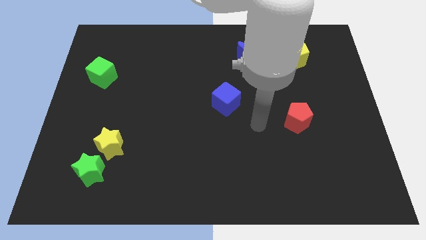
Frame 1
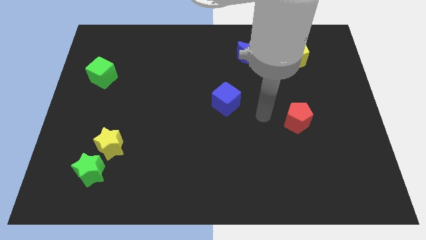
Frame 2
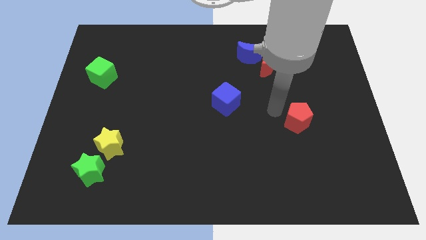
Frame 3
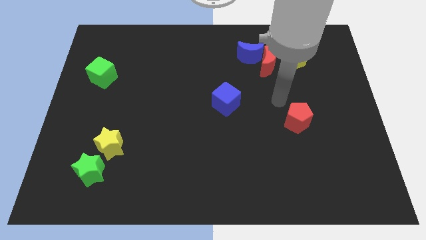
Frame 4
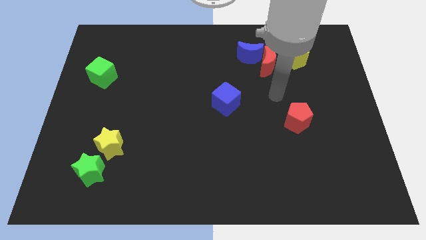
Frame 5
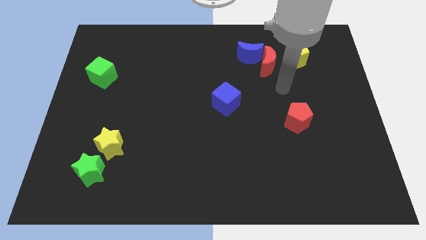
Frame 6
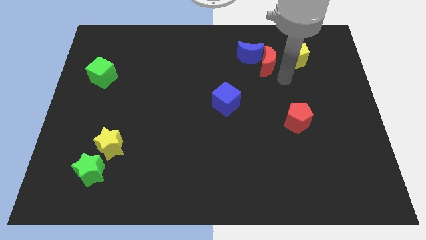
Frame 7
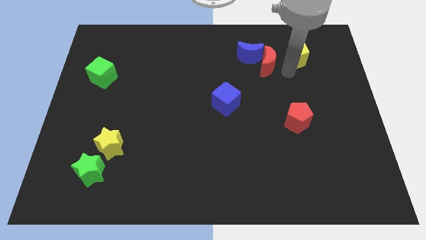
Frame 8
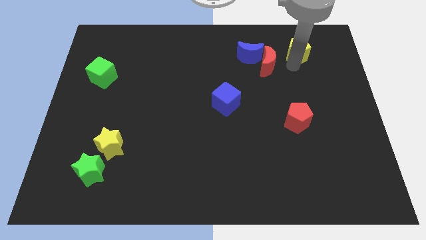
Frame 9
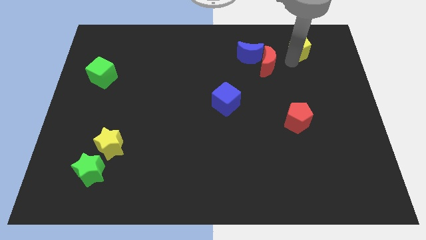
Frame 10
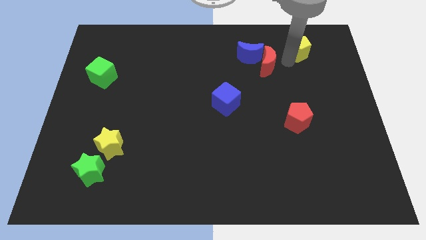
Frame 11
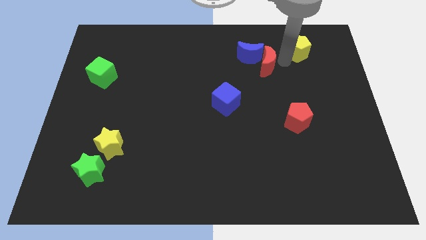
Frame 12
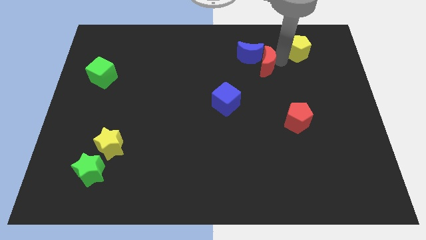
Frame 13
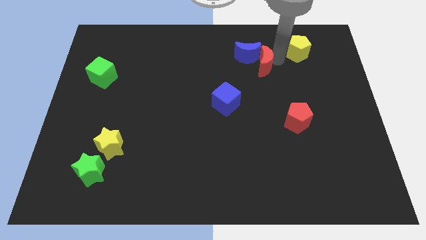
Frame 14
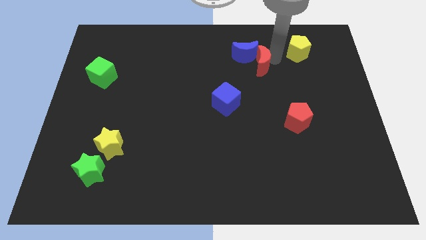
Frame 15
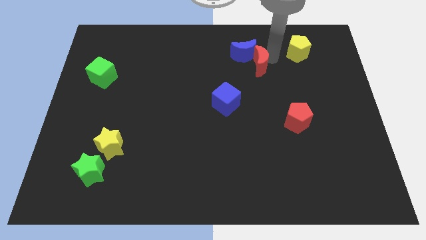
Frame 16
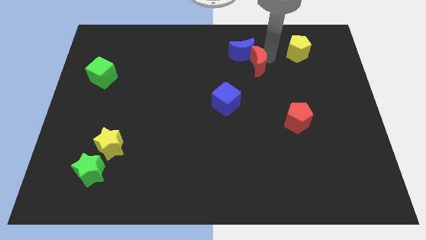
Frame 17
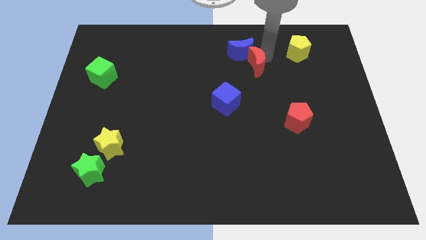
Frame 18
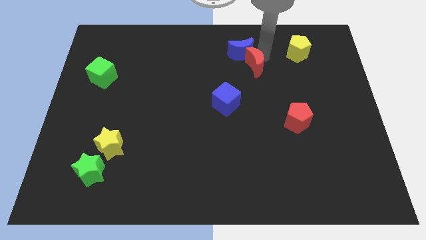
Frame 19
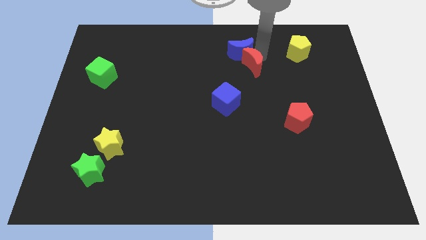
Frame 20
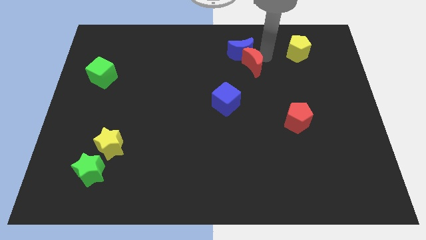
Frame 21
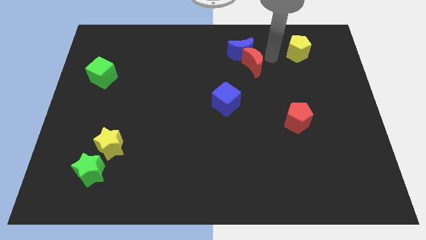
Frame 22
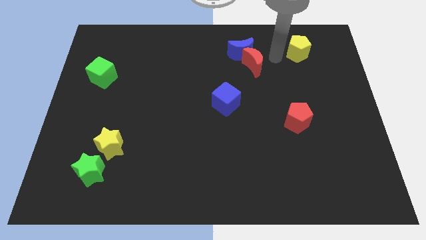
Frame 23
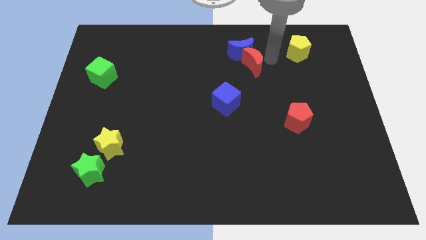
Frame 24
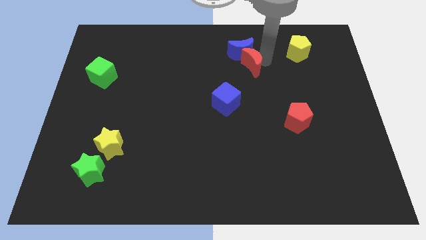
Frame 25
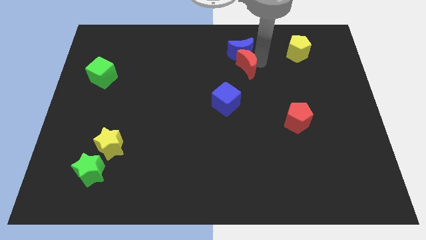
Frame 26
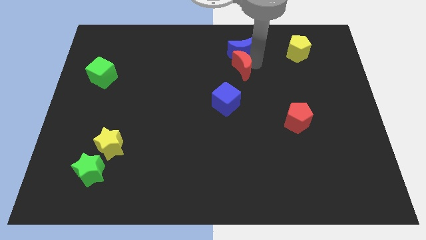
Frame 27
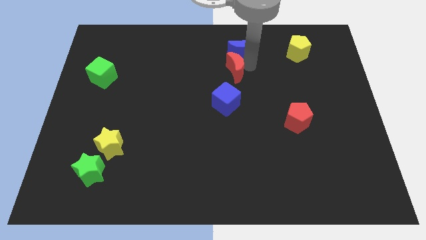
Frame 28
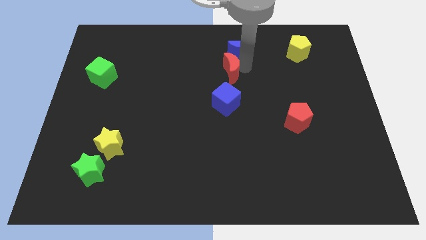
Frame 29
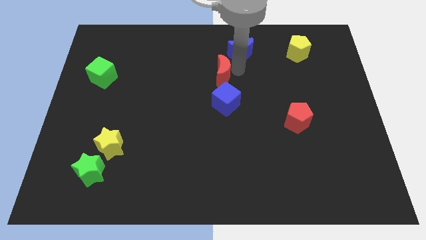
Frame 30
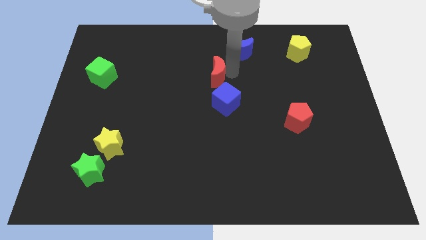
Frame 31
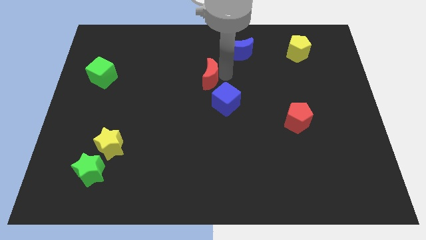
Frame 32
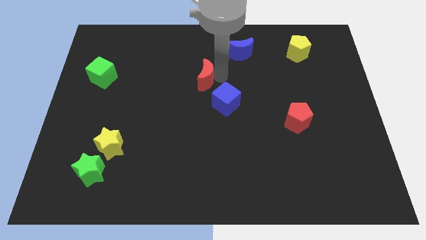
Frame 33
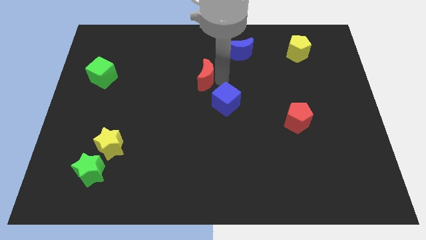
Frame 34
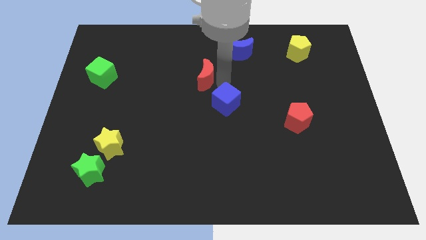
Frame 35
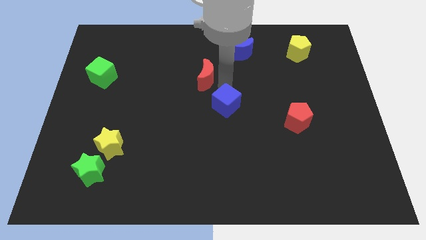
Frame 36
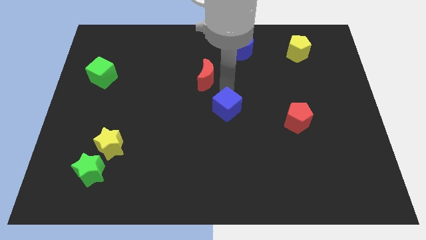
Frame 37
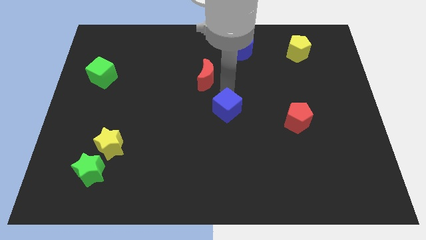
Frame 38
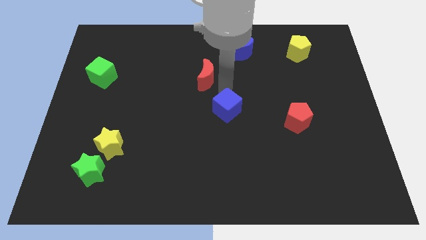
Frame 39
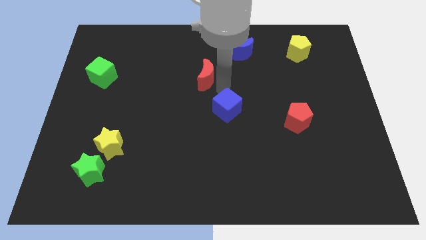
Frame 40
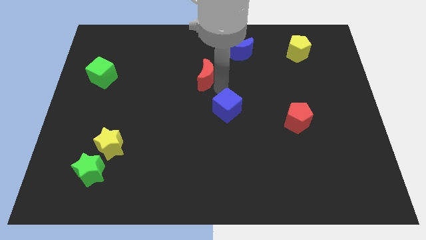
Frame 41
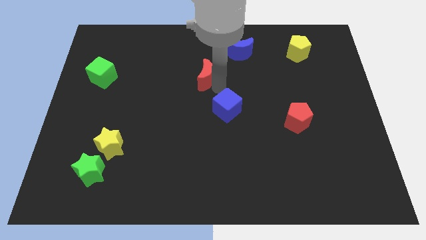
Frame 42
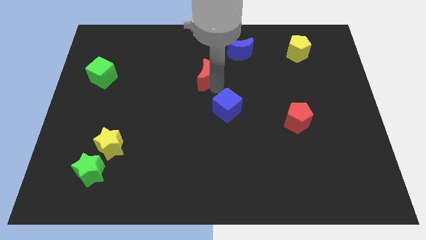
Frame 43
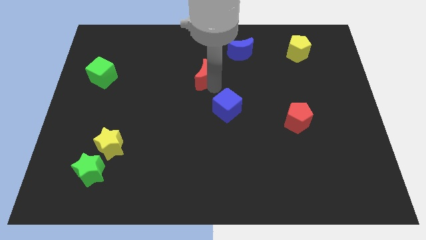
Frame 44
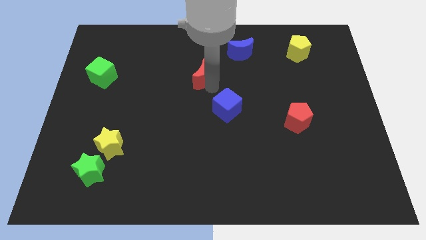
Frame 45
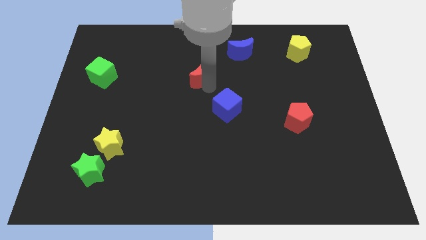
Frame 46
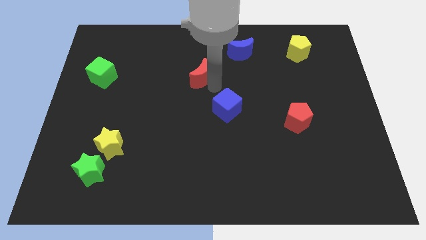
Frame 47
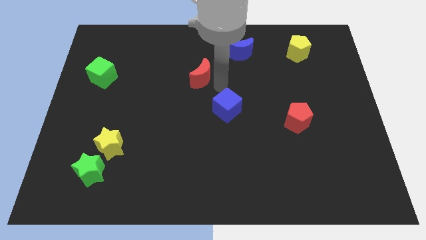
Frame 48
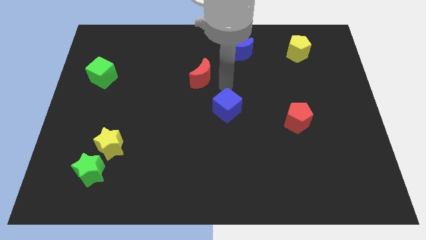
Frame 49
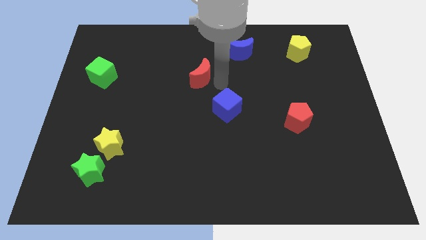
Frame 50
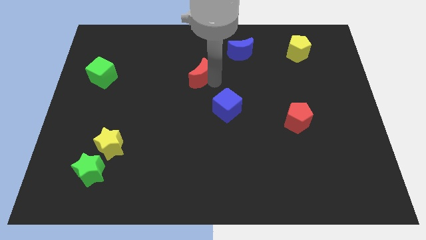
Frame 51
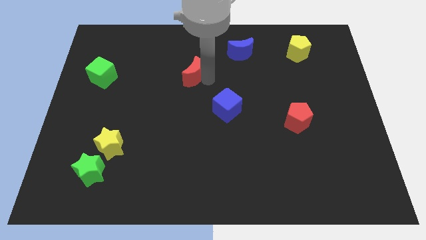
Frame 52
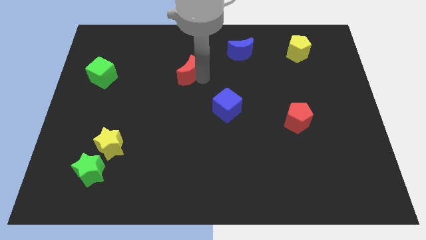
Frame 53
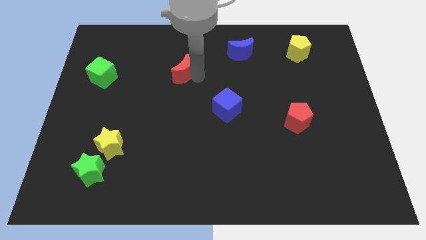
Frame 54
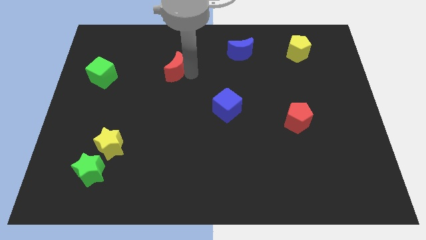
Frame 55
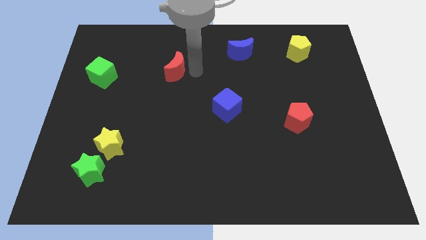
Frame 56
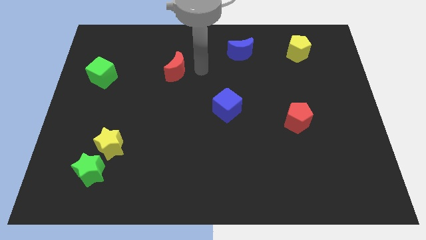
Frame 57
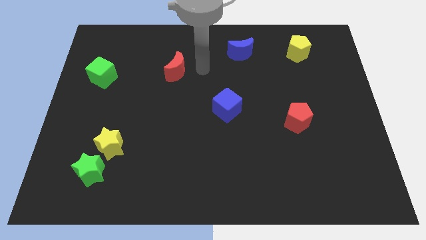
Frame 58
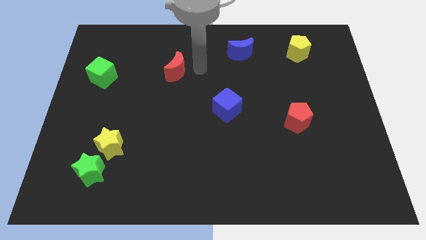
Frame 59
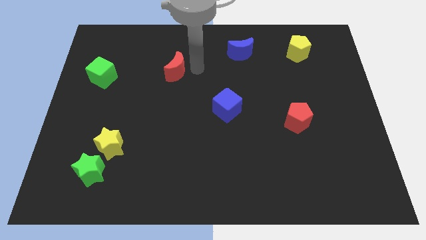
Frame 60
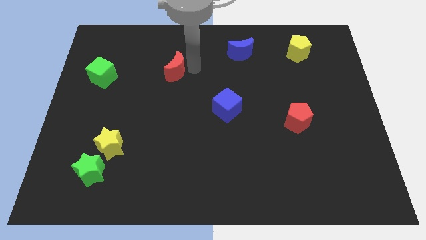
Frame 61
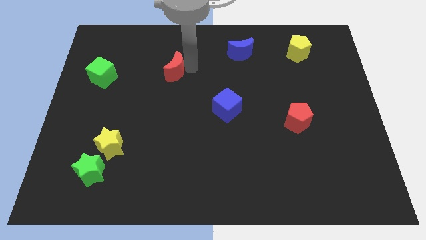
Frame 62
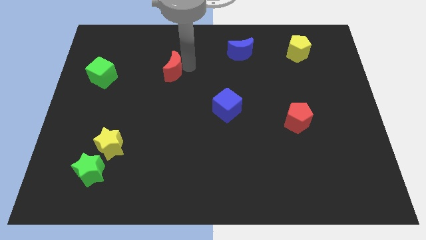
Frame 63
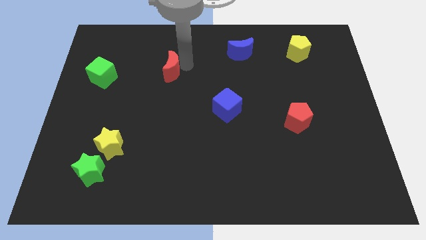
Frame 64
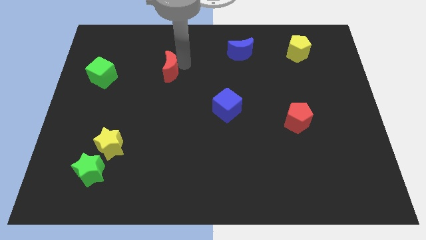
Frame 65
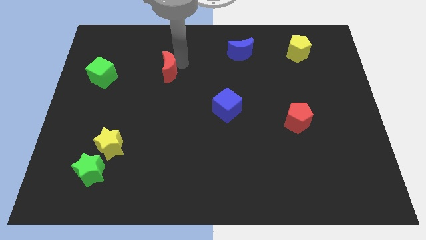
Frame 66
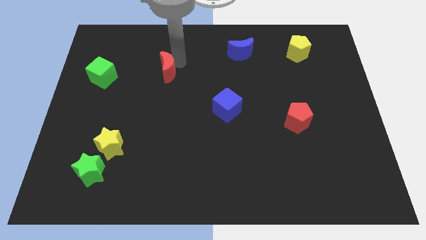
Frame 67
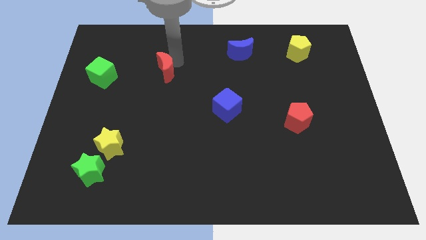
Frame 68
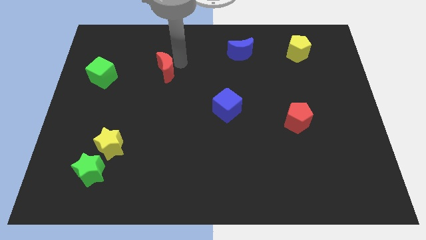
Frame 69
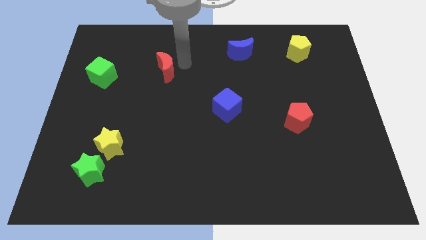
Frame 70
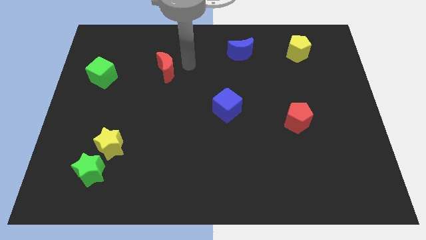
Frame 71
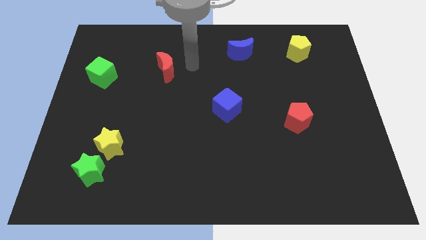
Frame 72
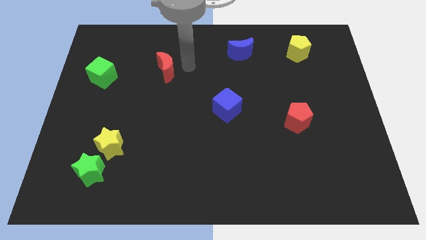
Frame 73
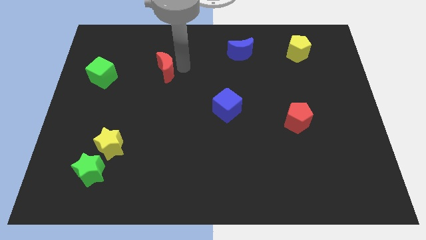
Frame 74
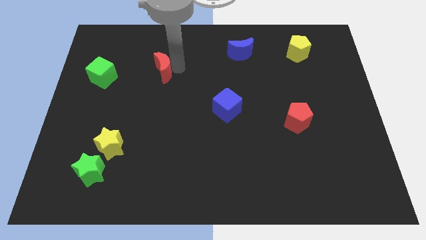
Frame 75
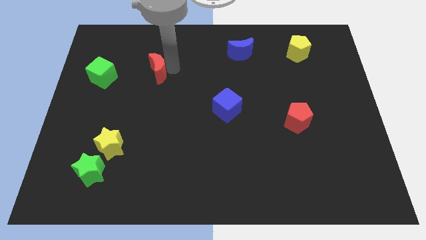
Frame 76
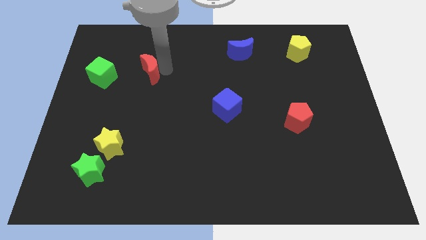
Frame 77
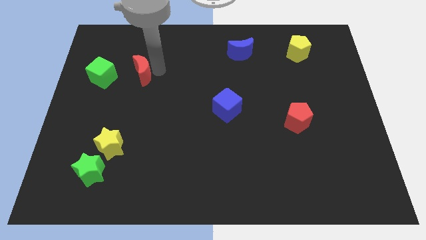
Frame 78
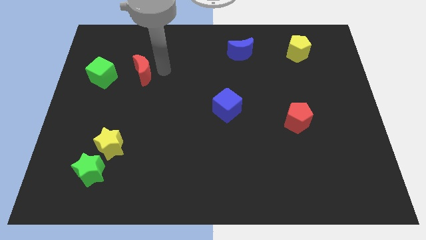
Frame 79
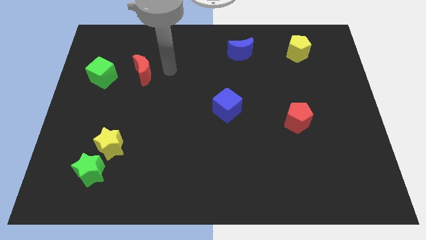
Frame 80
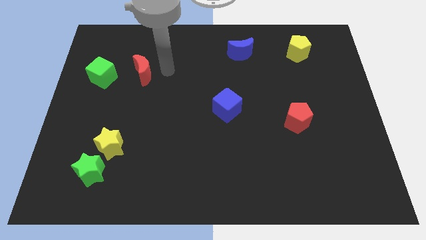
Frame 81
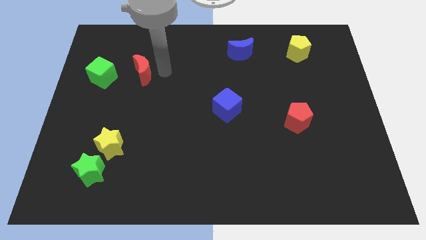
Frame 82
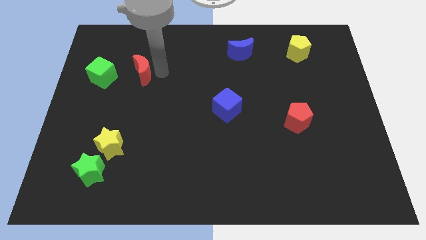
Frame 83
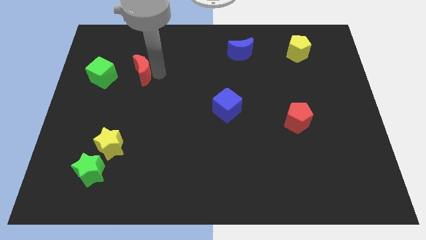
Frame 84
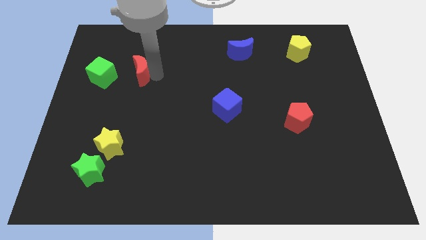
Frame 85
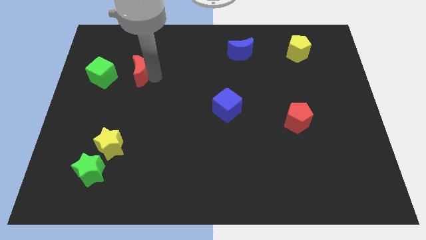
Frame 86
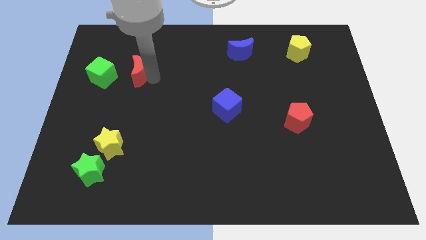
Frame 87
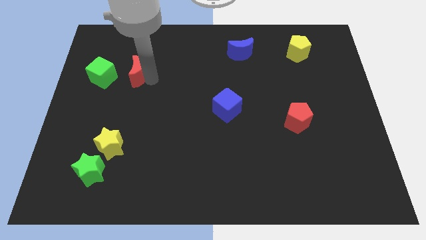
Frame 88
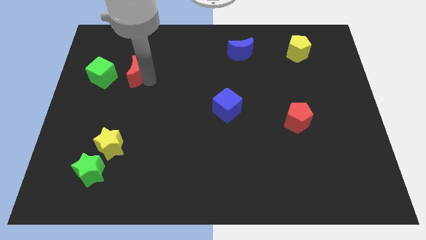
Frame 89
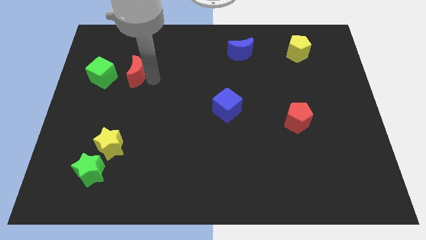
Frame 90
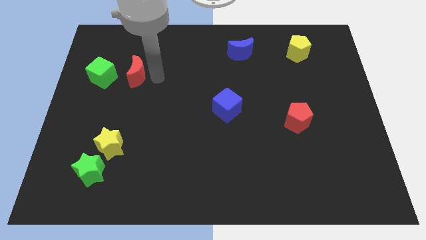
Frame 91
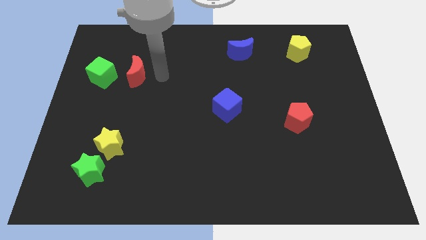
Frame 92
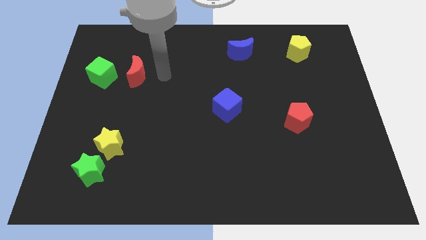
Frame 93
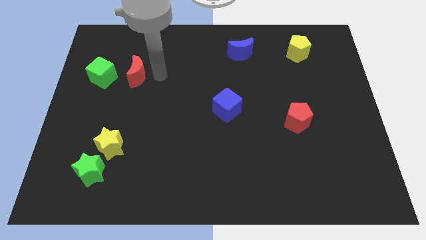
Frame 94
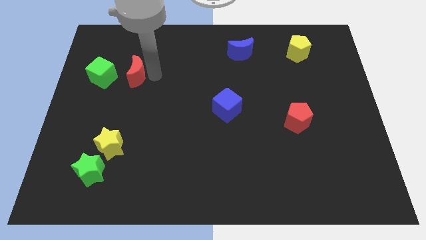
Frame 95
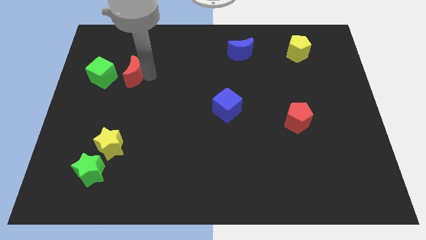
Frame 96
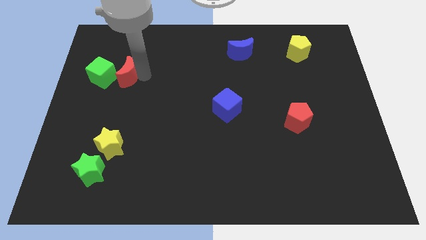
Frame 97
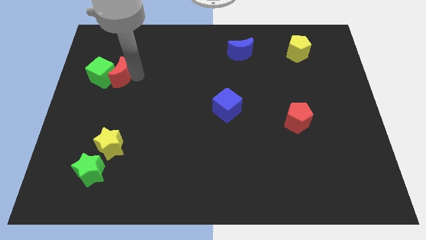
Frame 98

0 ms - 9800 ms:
slide the red moon next to the green cube
